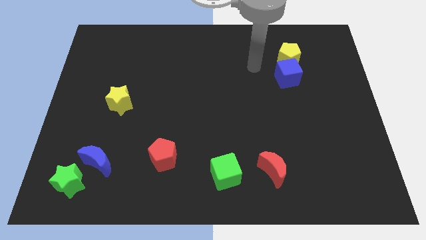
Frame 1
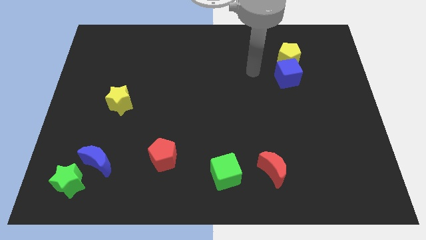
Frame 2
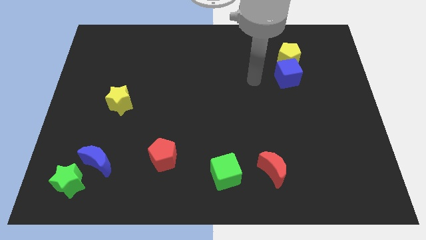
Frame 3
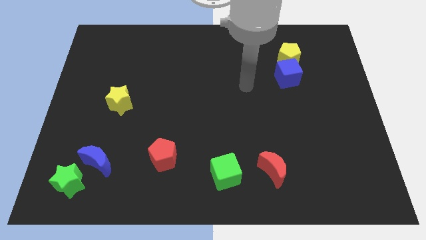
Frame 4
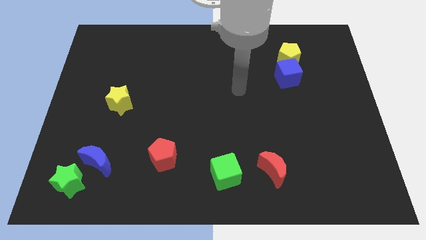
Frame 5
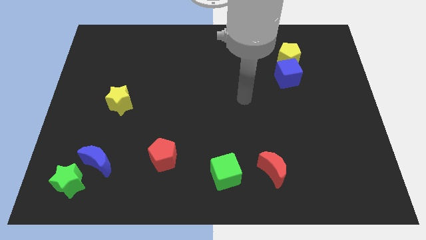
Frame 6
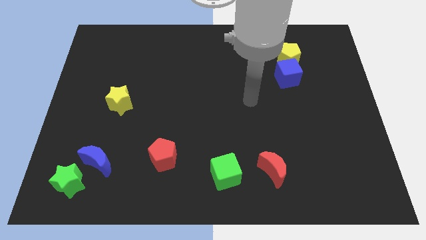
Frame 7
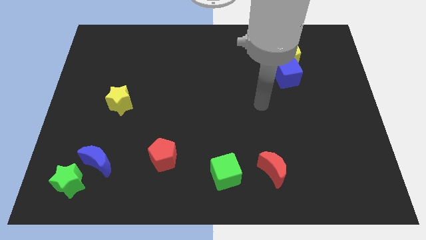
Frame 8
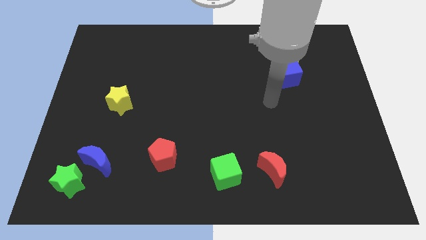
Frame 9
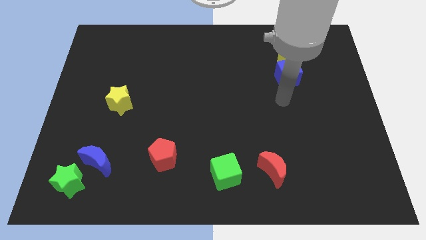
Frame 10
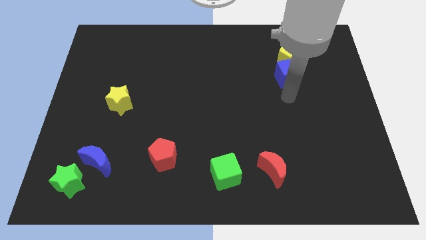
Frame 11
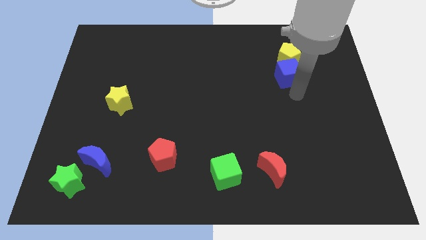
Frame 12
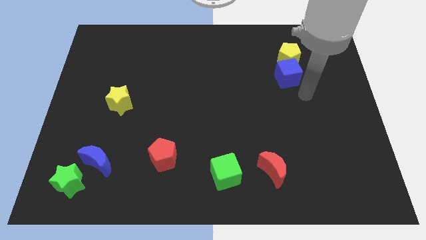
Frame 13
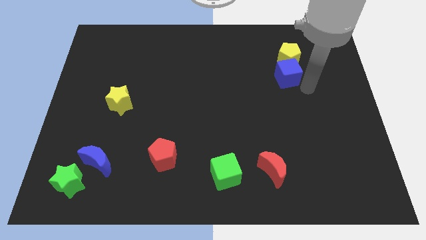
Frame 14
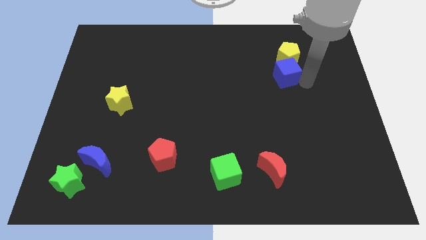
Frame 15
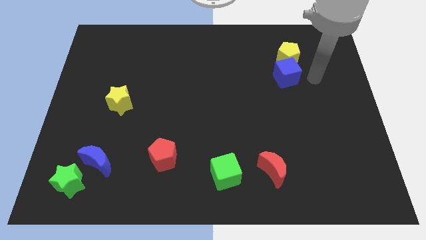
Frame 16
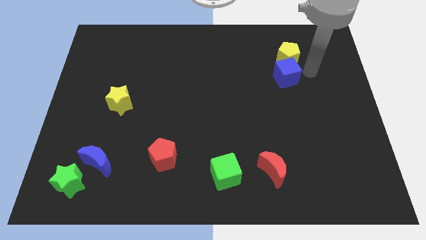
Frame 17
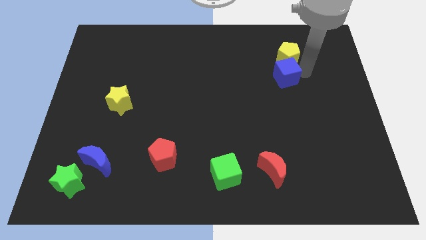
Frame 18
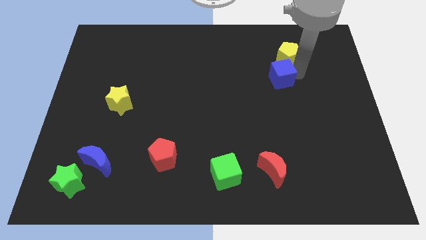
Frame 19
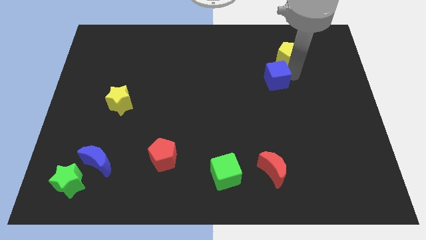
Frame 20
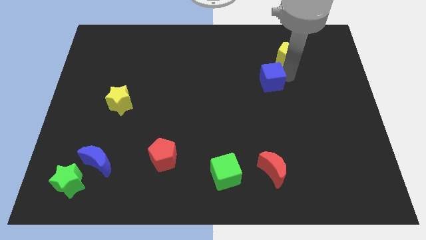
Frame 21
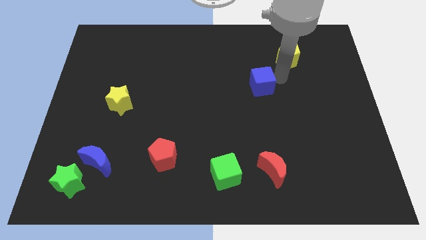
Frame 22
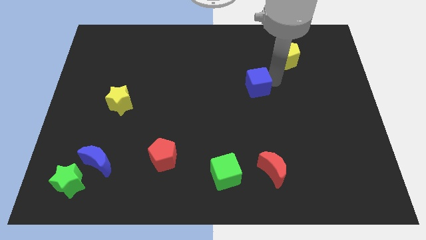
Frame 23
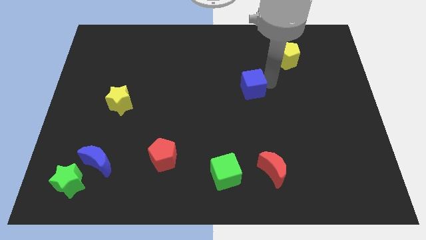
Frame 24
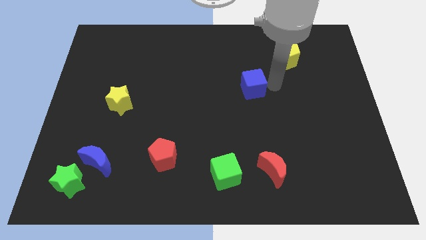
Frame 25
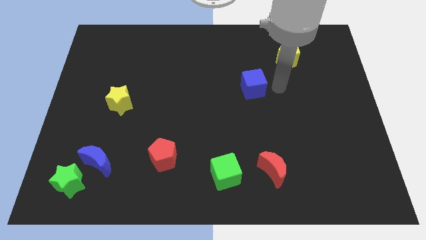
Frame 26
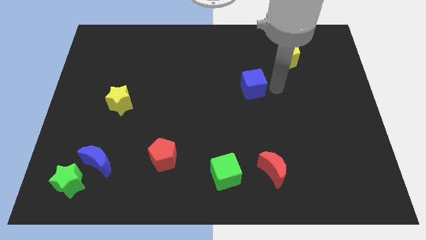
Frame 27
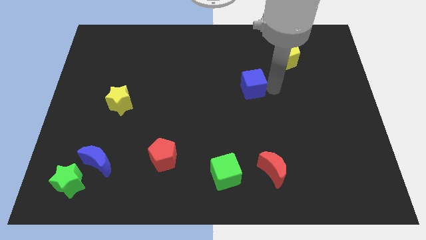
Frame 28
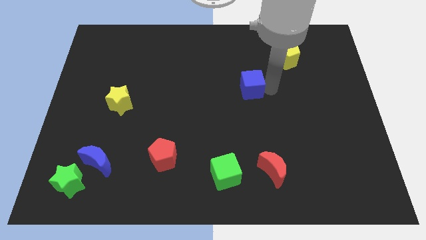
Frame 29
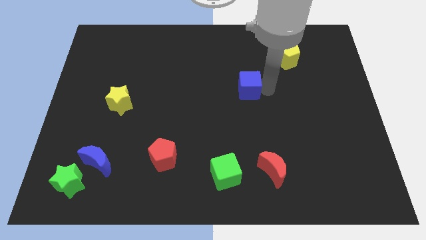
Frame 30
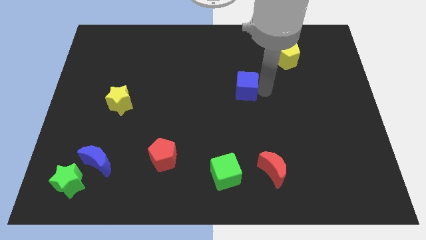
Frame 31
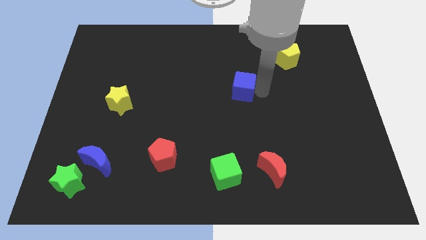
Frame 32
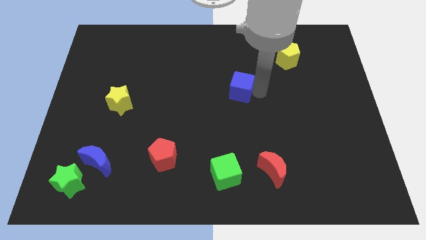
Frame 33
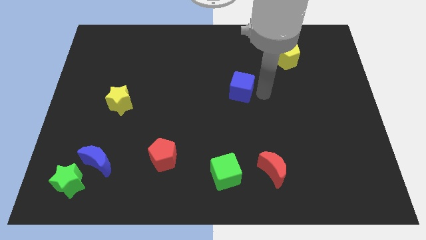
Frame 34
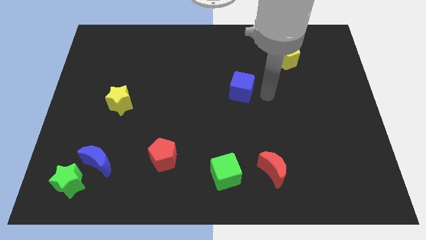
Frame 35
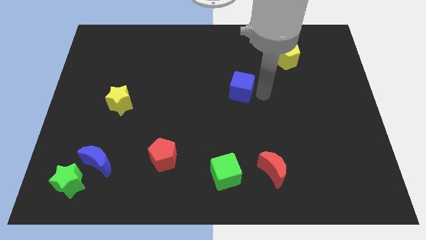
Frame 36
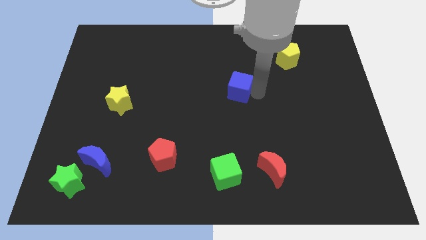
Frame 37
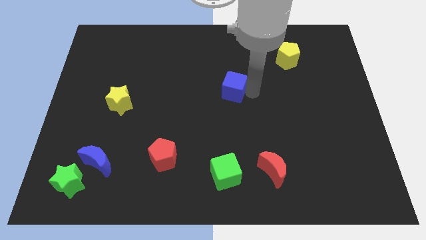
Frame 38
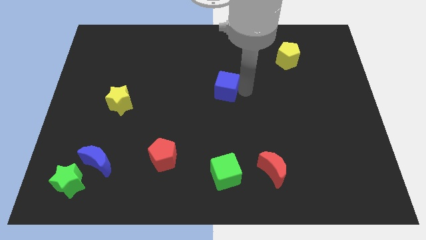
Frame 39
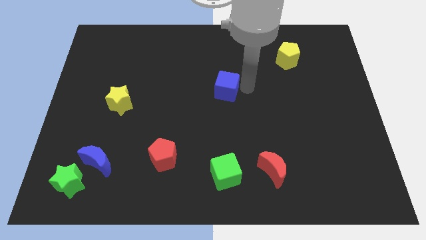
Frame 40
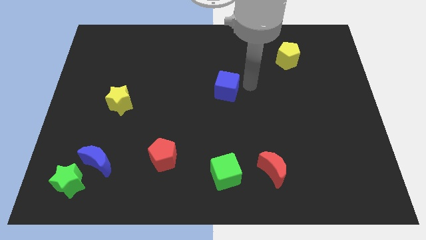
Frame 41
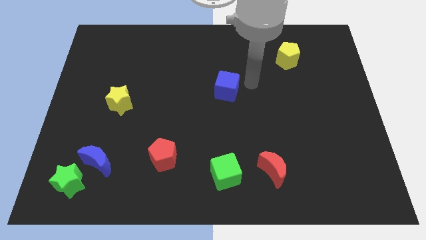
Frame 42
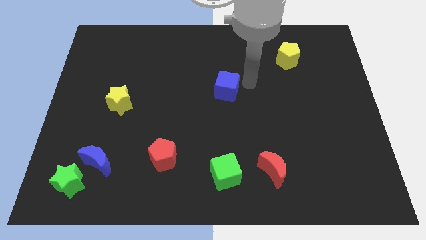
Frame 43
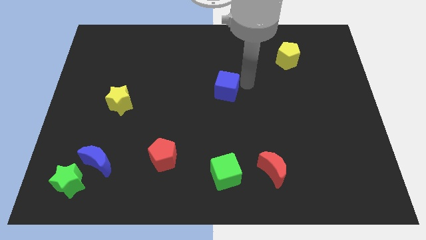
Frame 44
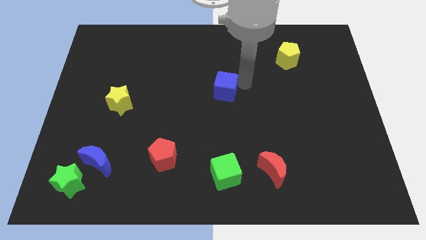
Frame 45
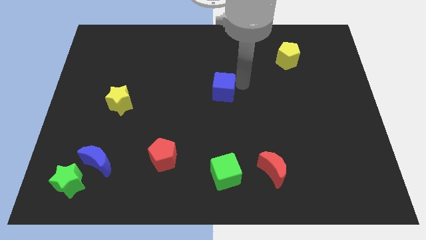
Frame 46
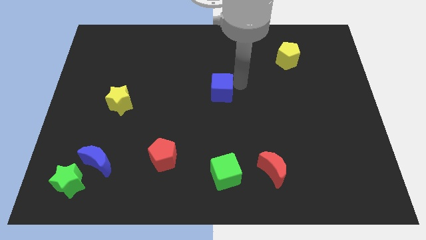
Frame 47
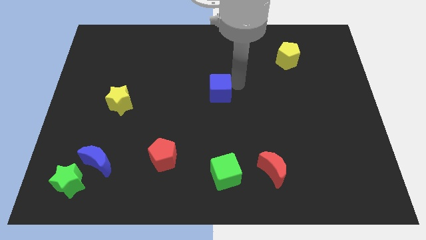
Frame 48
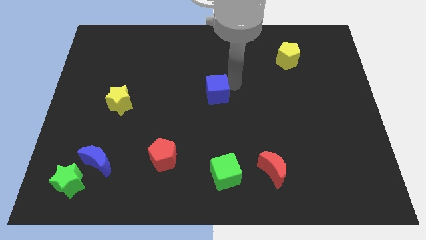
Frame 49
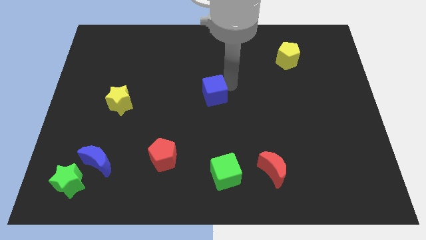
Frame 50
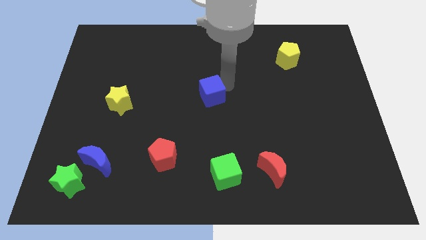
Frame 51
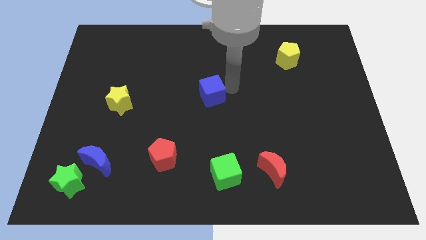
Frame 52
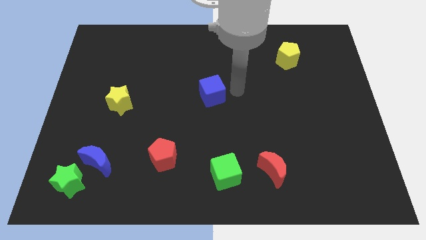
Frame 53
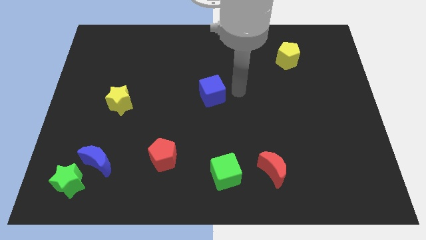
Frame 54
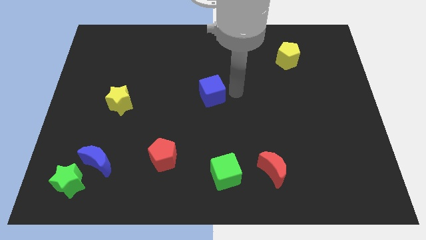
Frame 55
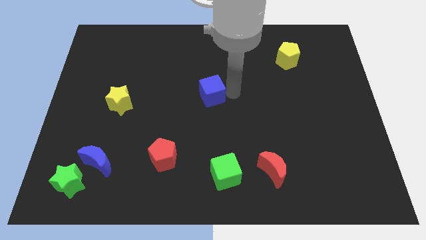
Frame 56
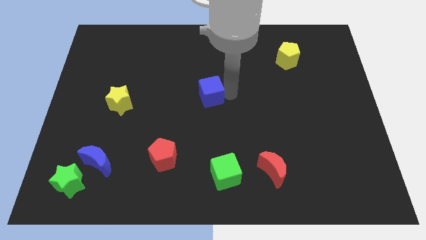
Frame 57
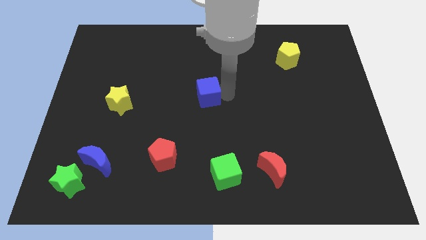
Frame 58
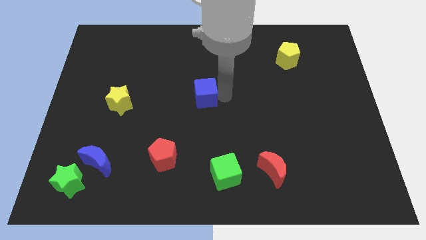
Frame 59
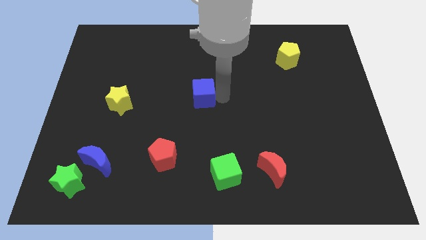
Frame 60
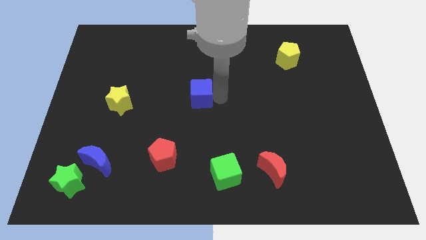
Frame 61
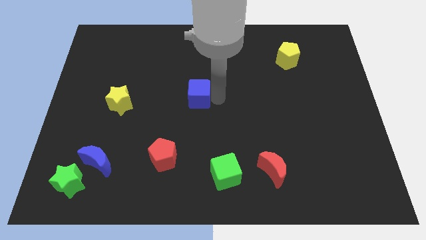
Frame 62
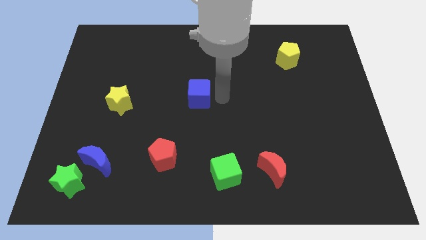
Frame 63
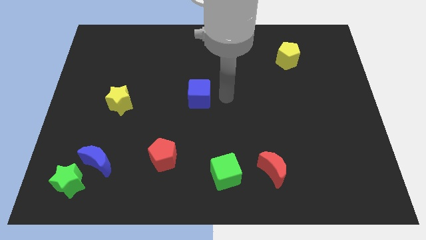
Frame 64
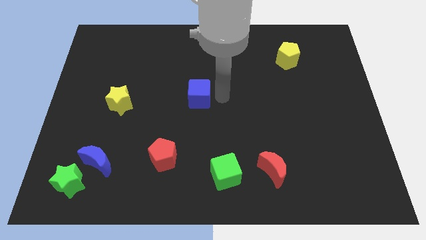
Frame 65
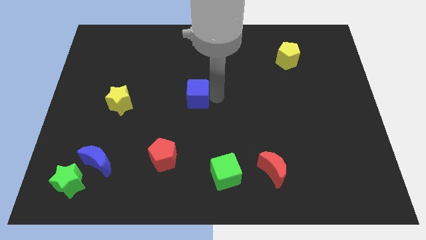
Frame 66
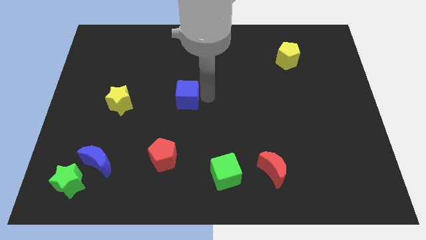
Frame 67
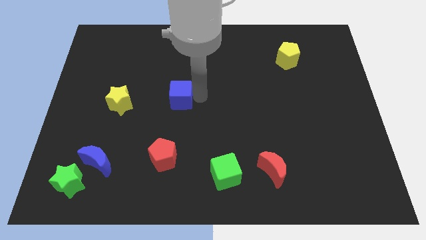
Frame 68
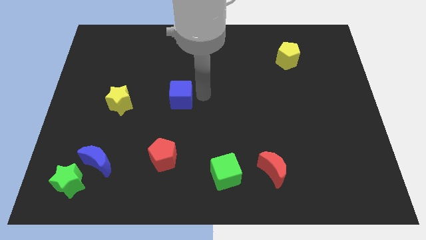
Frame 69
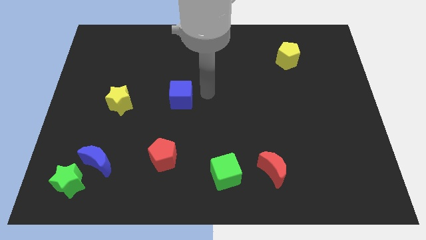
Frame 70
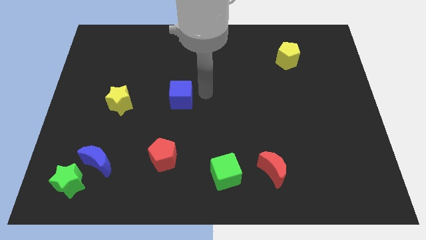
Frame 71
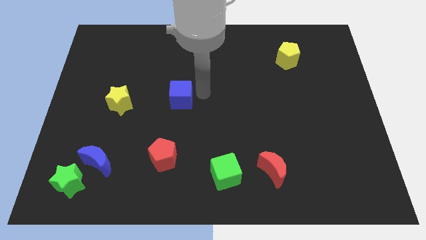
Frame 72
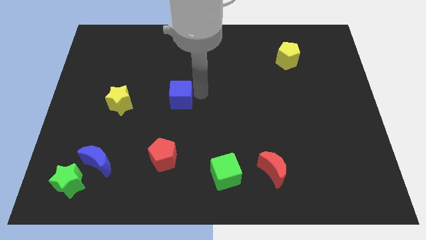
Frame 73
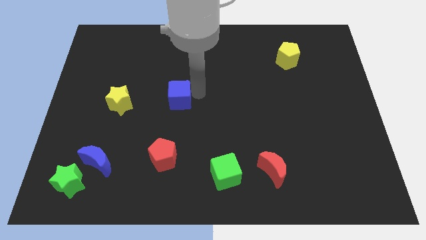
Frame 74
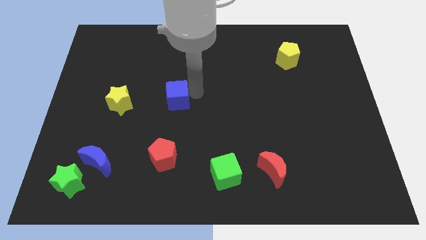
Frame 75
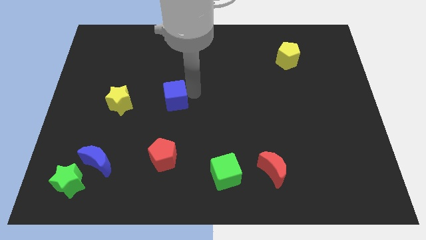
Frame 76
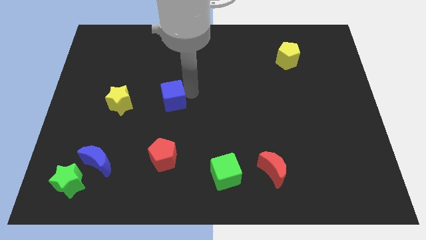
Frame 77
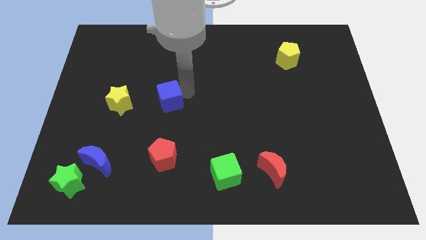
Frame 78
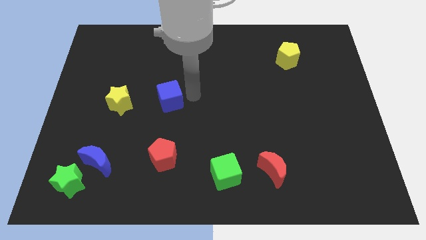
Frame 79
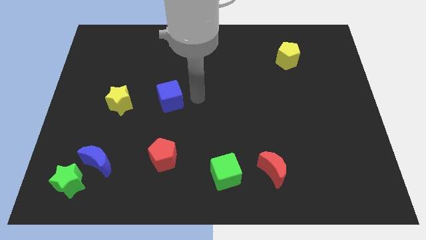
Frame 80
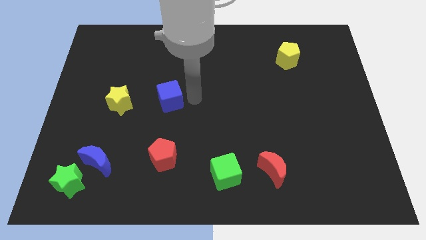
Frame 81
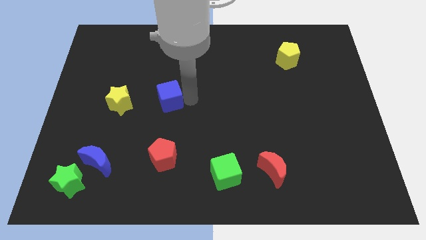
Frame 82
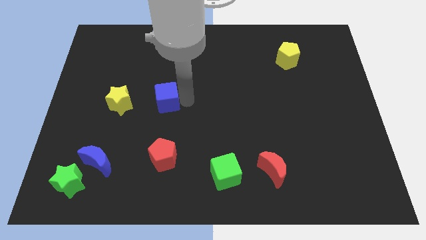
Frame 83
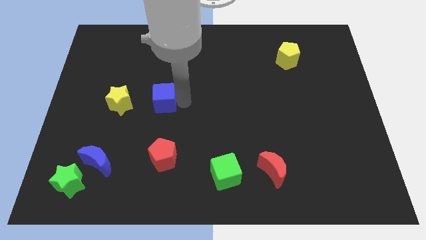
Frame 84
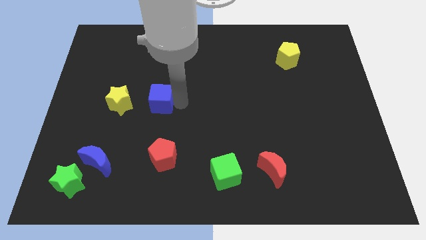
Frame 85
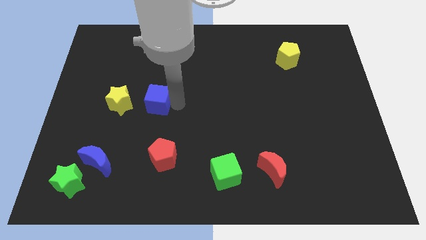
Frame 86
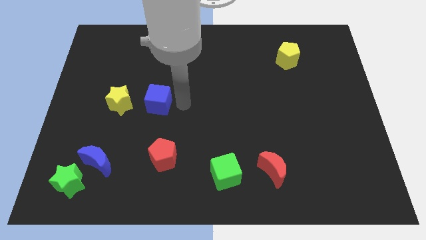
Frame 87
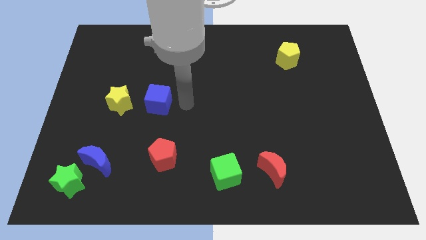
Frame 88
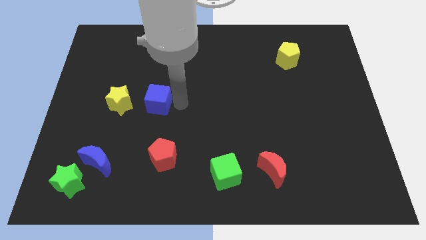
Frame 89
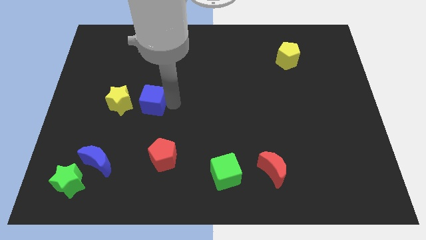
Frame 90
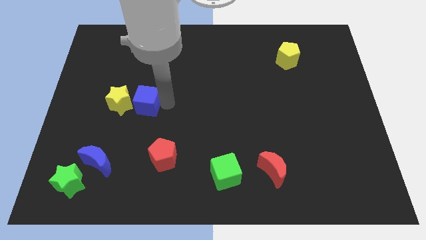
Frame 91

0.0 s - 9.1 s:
slide the blue cube close to the yellow star
